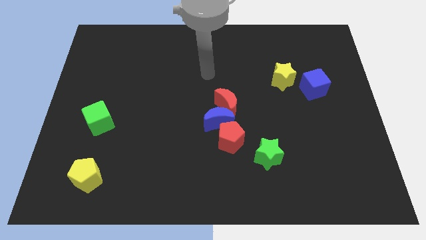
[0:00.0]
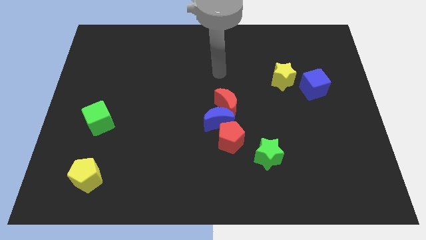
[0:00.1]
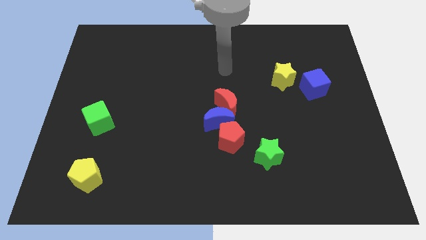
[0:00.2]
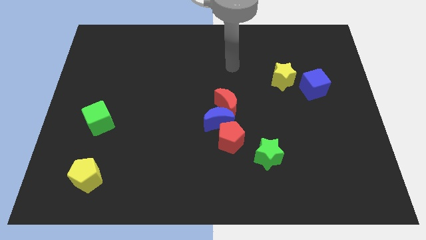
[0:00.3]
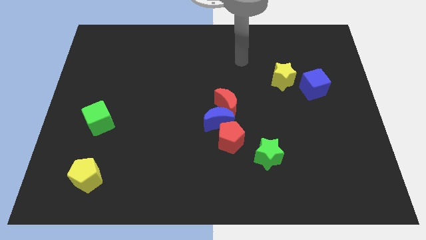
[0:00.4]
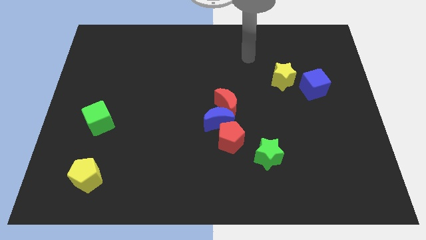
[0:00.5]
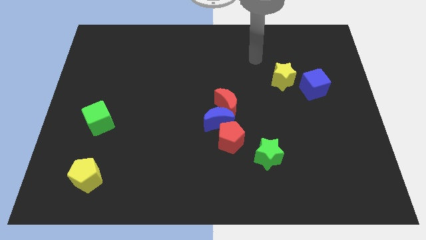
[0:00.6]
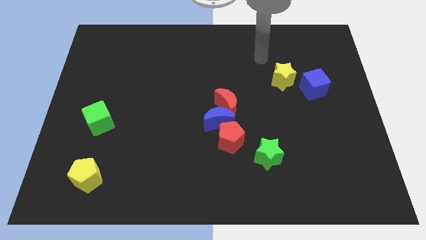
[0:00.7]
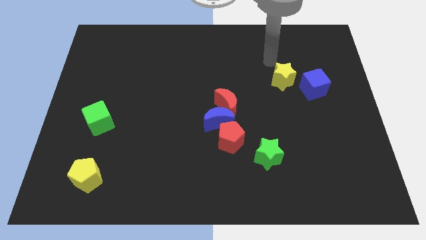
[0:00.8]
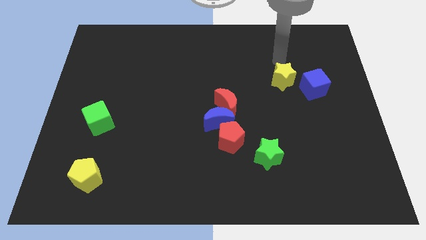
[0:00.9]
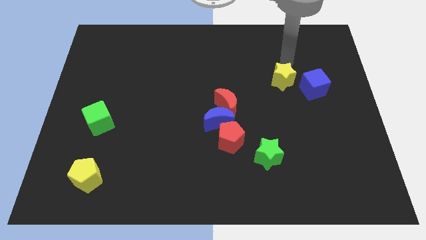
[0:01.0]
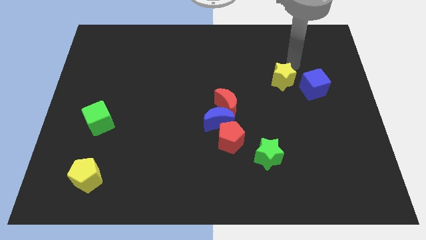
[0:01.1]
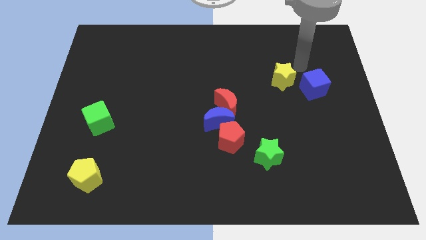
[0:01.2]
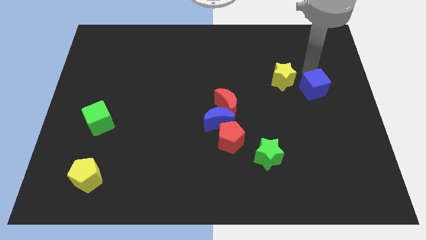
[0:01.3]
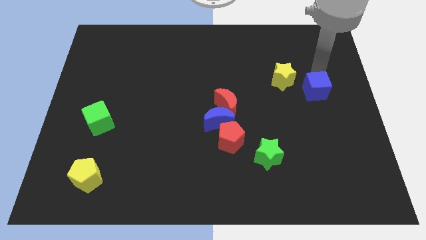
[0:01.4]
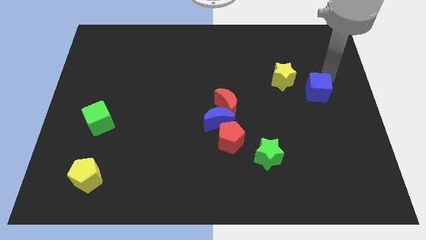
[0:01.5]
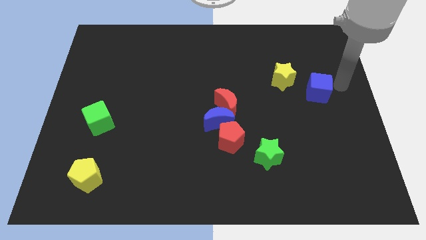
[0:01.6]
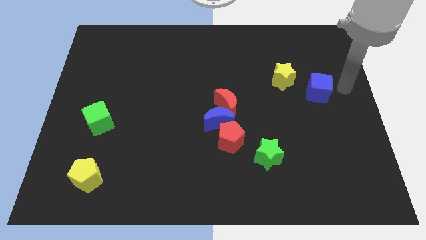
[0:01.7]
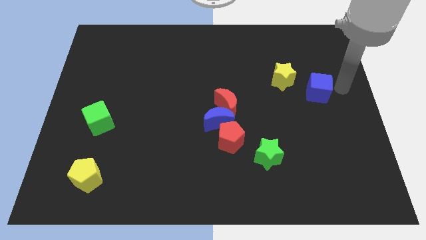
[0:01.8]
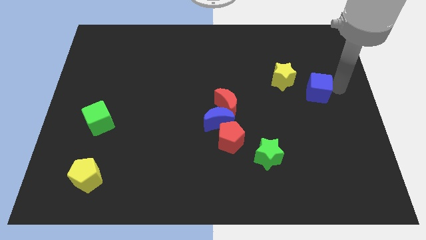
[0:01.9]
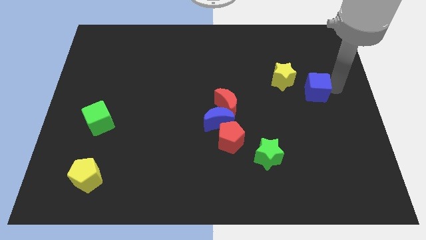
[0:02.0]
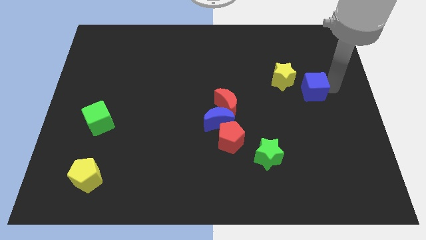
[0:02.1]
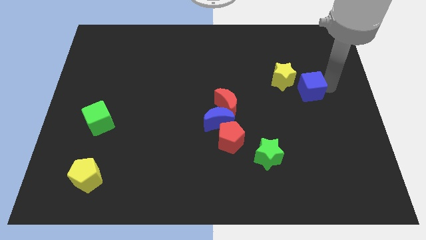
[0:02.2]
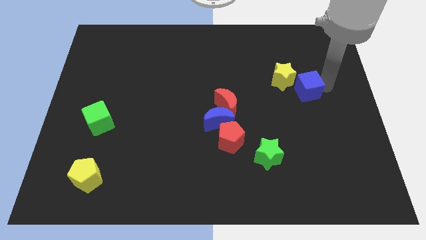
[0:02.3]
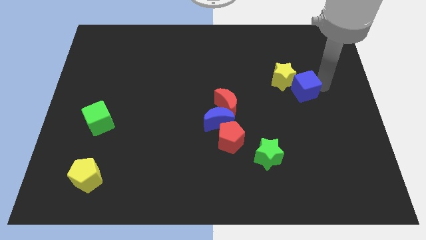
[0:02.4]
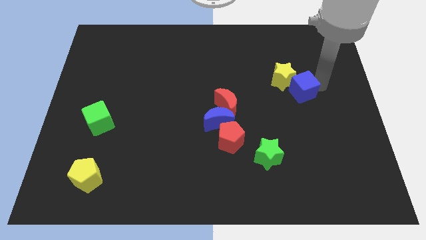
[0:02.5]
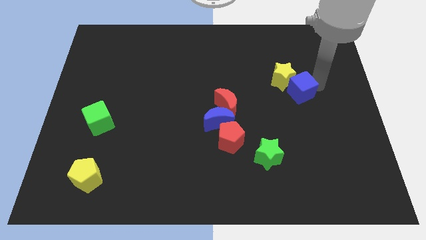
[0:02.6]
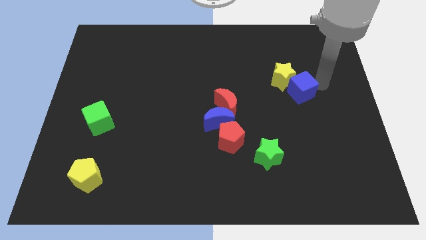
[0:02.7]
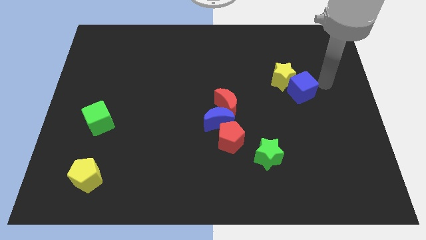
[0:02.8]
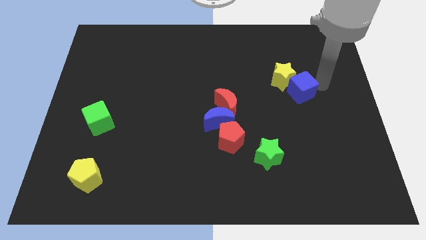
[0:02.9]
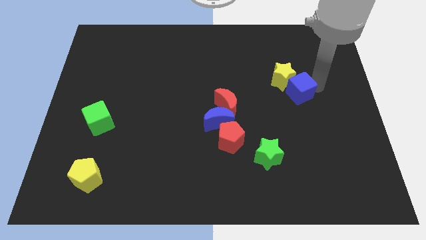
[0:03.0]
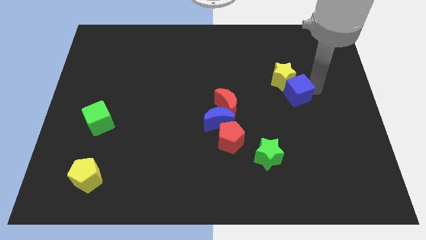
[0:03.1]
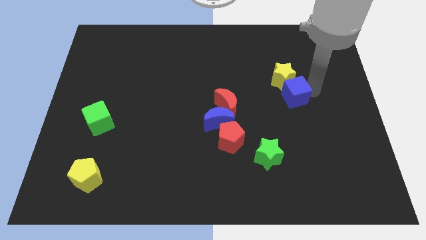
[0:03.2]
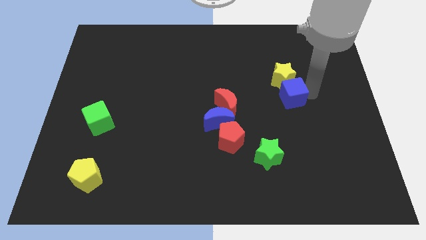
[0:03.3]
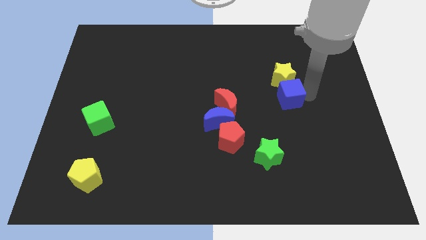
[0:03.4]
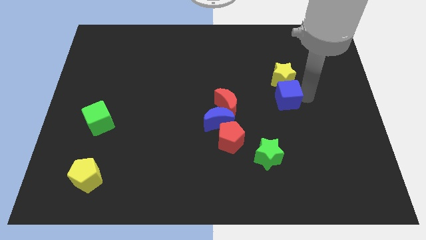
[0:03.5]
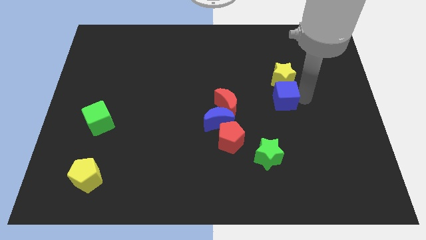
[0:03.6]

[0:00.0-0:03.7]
slide the blue cube to the left somewhat

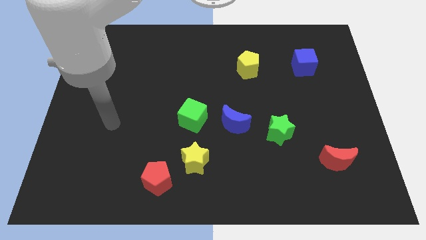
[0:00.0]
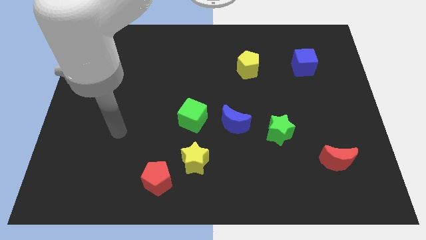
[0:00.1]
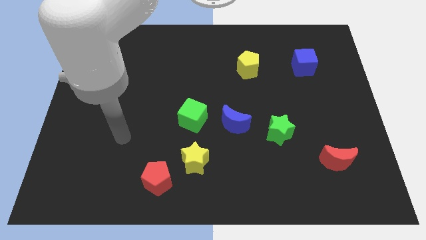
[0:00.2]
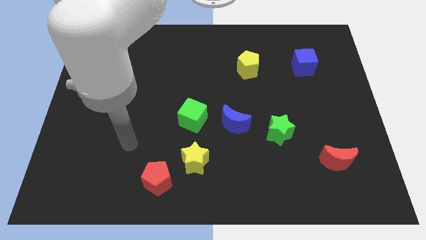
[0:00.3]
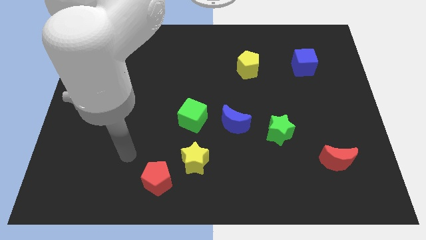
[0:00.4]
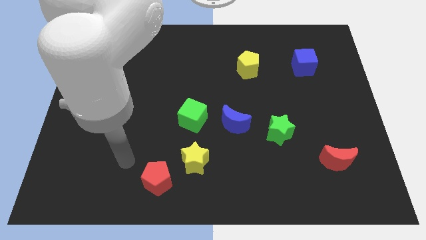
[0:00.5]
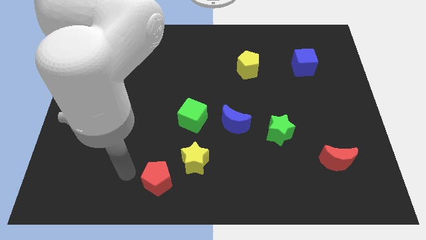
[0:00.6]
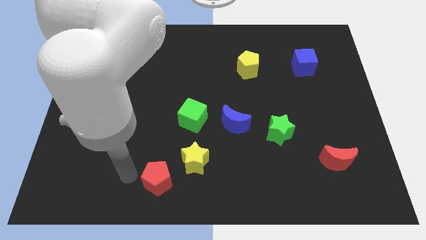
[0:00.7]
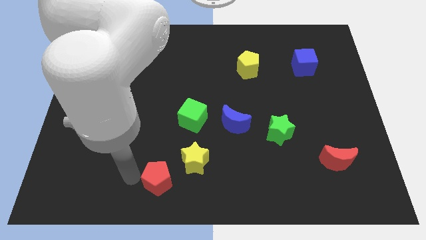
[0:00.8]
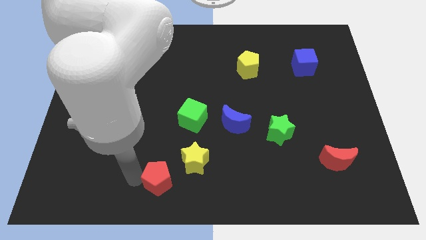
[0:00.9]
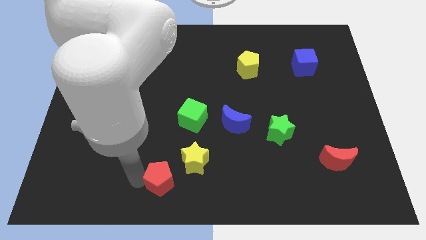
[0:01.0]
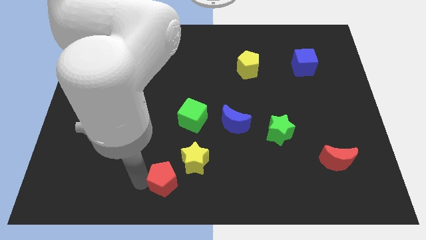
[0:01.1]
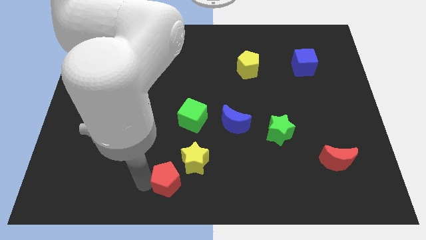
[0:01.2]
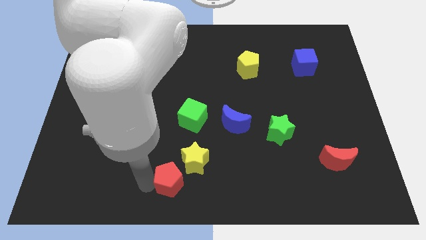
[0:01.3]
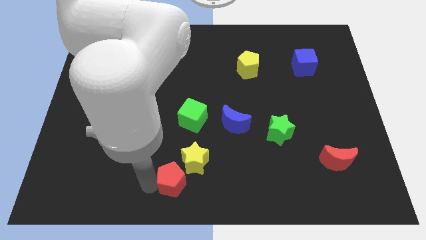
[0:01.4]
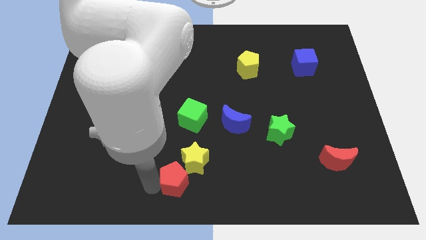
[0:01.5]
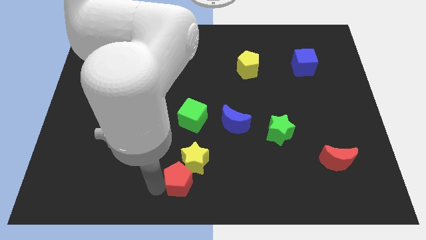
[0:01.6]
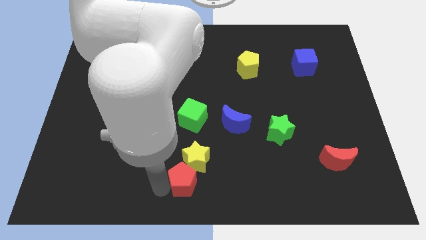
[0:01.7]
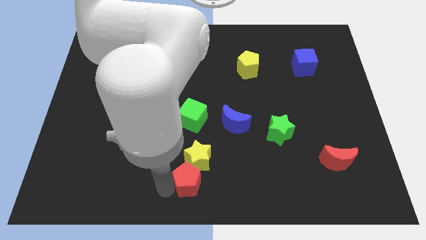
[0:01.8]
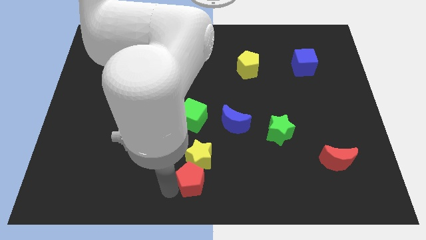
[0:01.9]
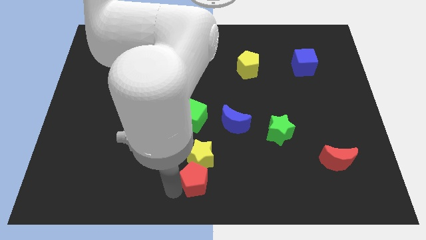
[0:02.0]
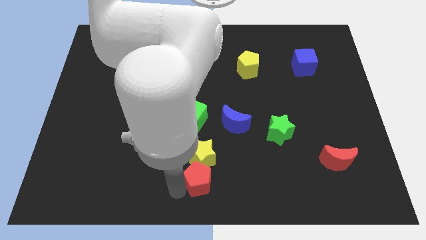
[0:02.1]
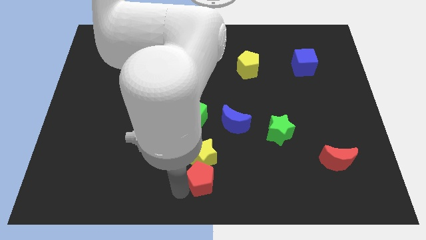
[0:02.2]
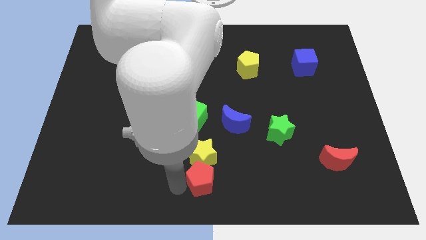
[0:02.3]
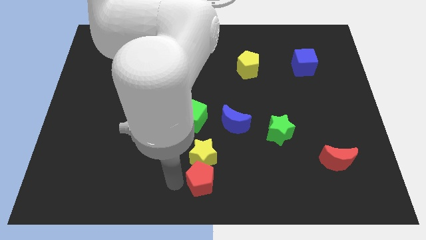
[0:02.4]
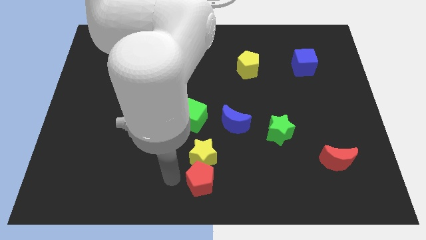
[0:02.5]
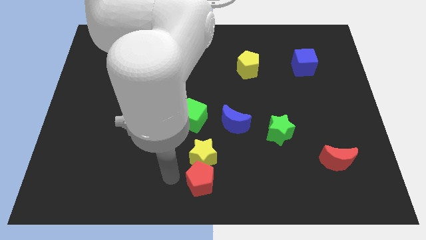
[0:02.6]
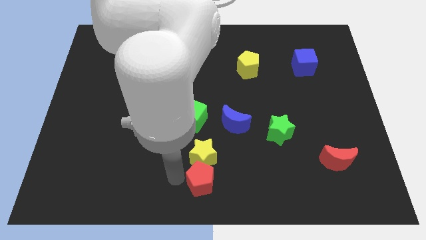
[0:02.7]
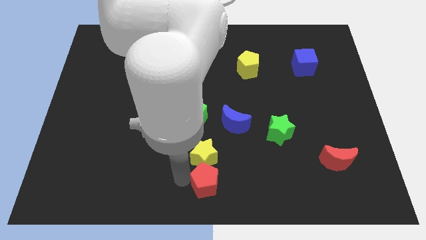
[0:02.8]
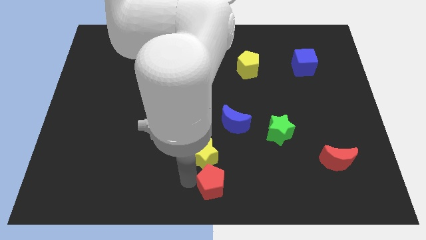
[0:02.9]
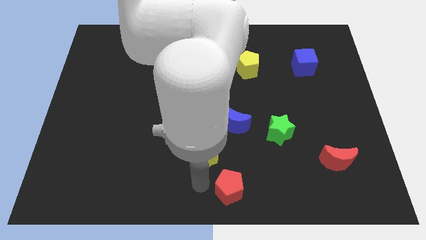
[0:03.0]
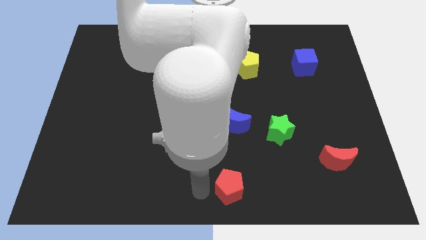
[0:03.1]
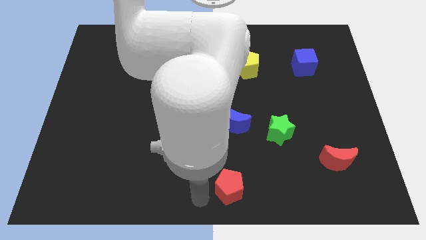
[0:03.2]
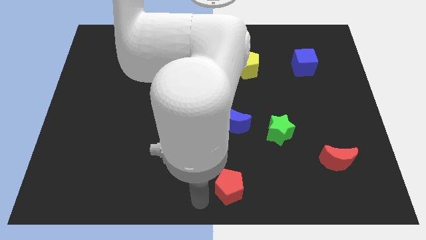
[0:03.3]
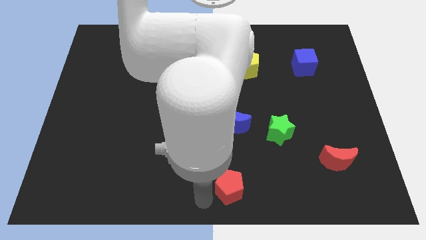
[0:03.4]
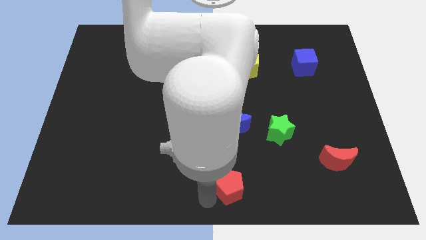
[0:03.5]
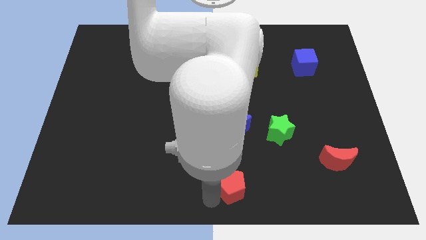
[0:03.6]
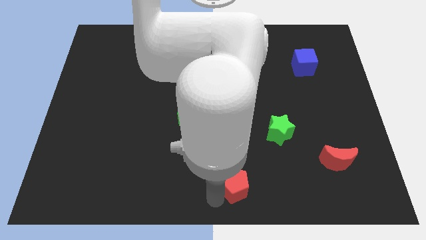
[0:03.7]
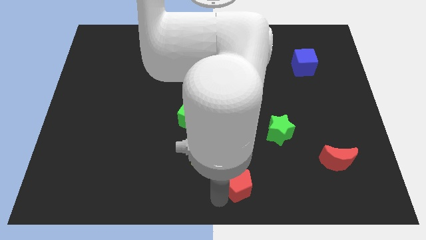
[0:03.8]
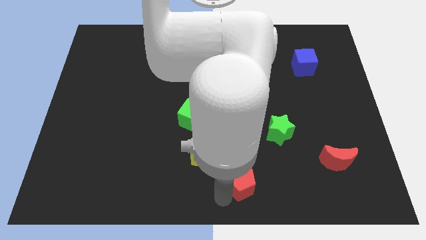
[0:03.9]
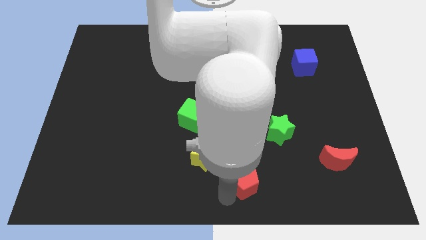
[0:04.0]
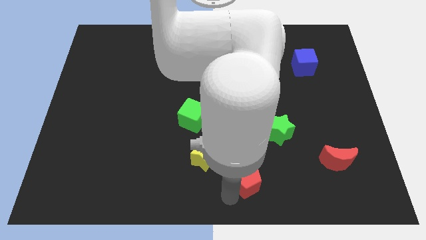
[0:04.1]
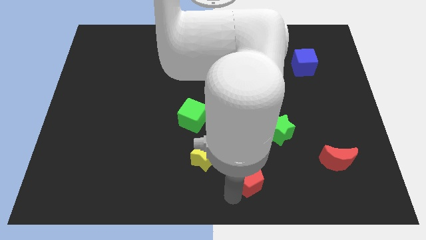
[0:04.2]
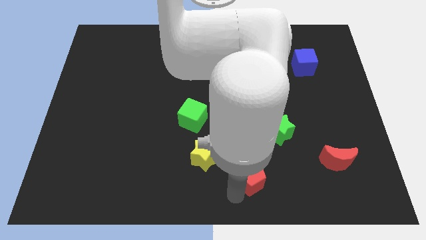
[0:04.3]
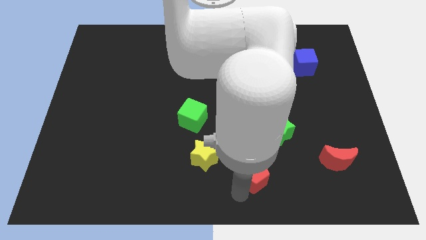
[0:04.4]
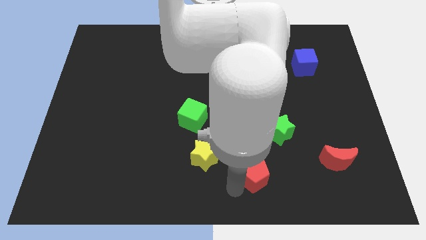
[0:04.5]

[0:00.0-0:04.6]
slide the red pentagon right
